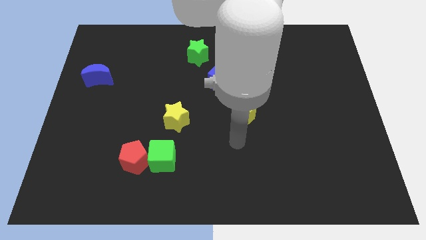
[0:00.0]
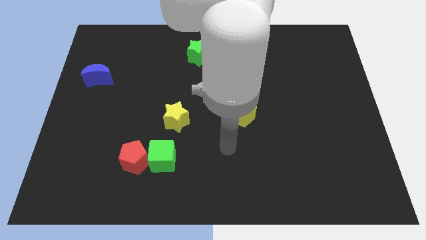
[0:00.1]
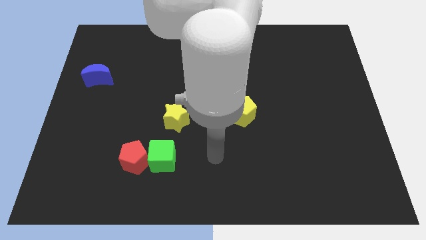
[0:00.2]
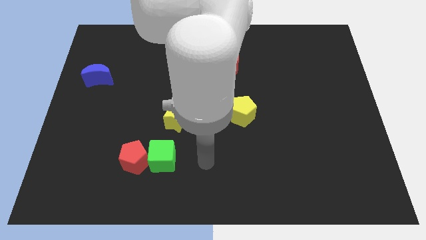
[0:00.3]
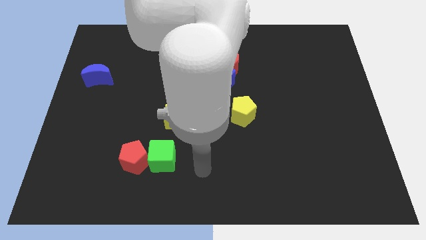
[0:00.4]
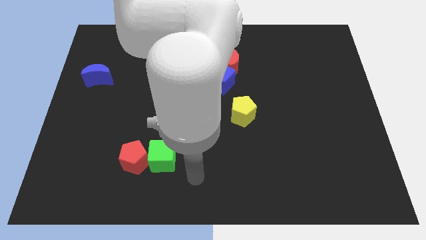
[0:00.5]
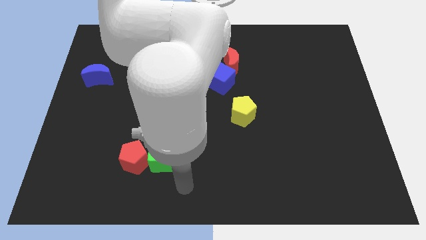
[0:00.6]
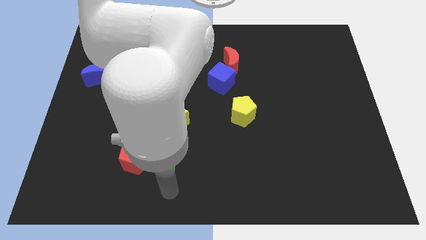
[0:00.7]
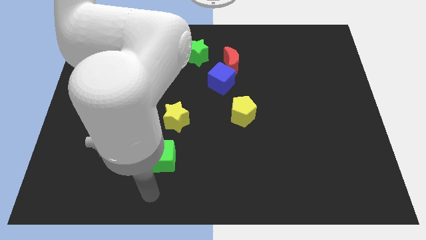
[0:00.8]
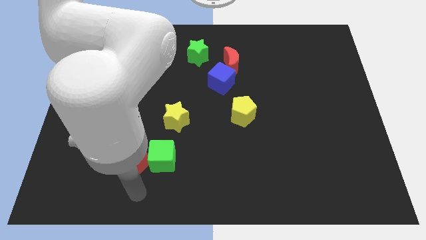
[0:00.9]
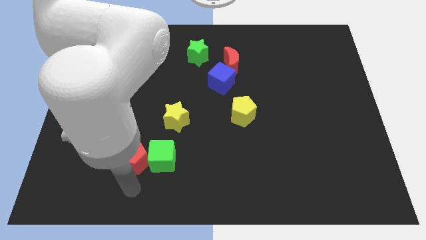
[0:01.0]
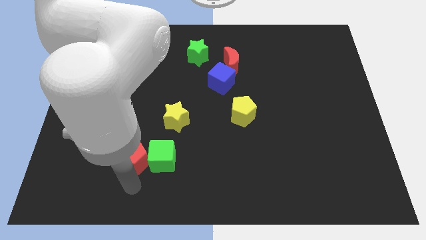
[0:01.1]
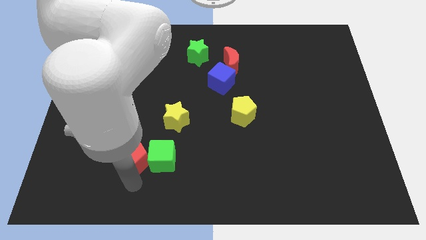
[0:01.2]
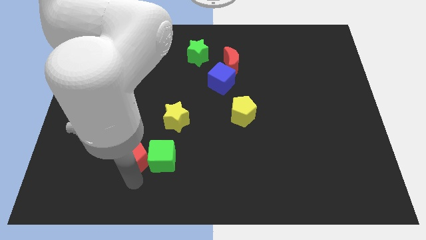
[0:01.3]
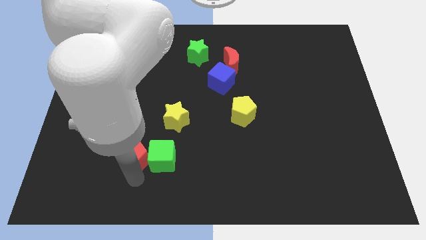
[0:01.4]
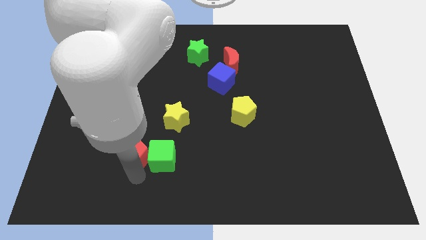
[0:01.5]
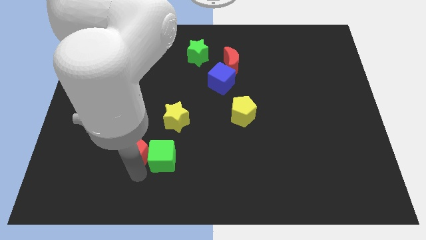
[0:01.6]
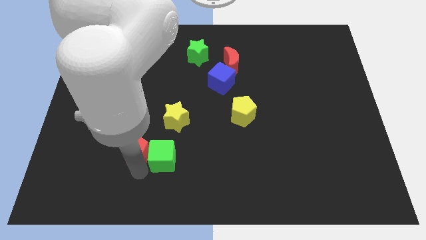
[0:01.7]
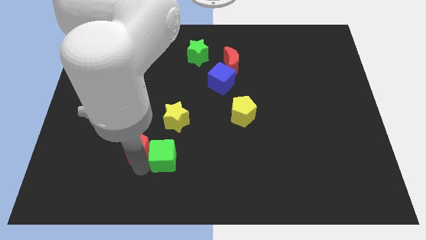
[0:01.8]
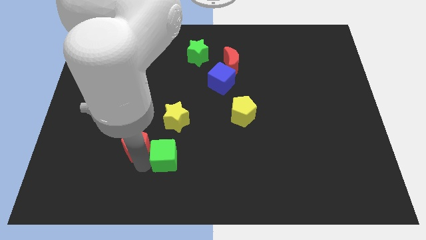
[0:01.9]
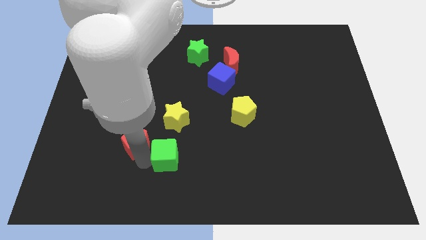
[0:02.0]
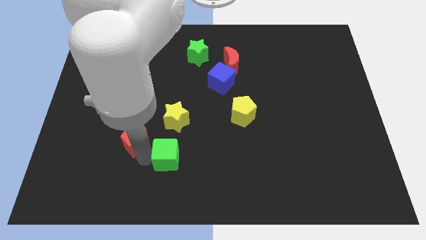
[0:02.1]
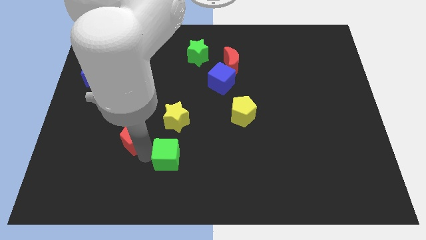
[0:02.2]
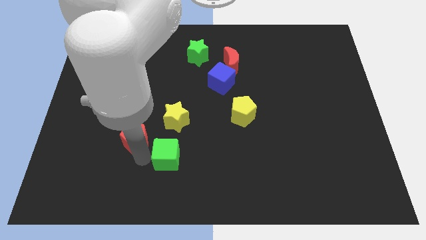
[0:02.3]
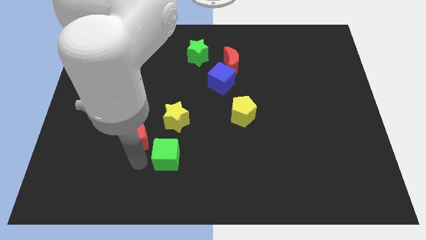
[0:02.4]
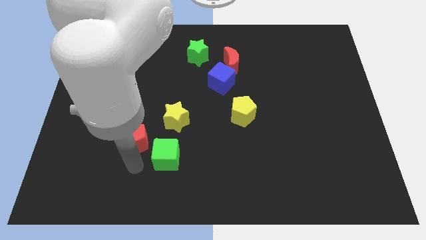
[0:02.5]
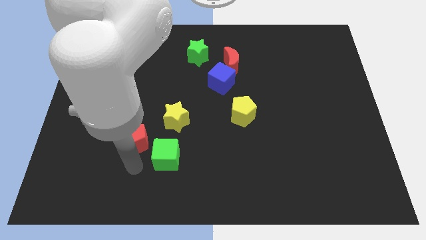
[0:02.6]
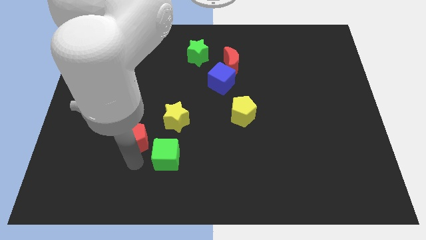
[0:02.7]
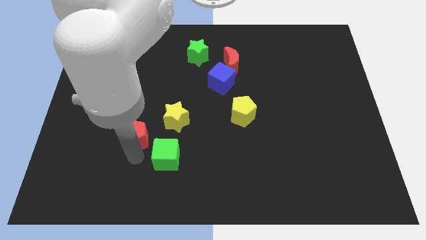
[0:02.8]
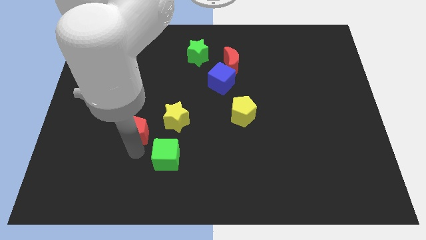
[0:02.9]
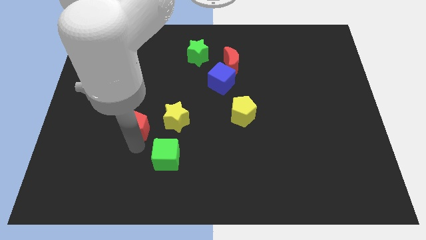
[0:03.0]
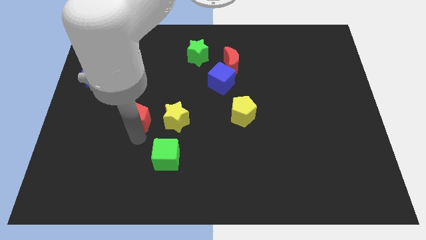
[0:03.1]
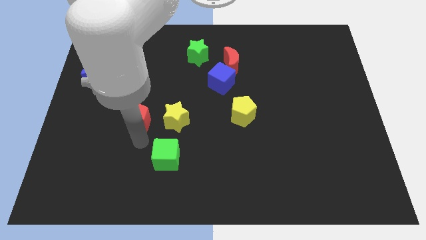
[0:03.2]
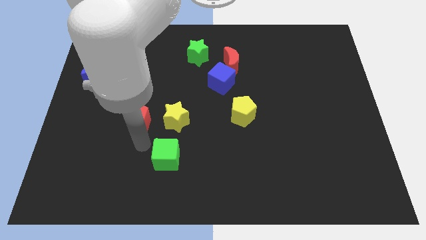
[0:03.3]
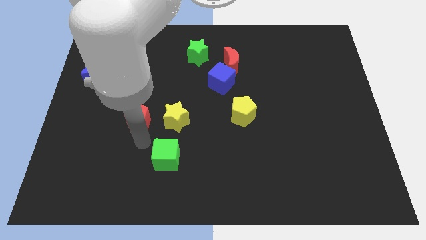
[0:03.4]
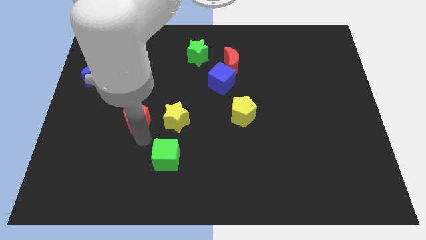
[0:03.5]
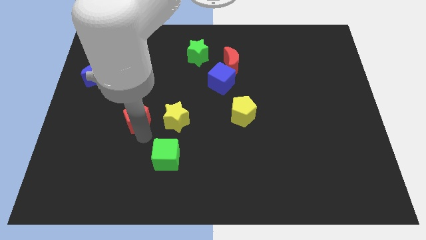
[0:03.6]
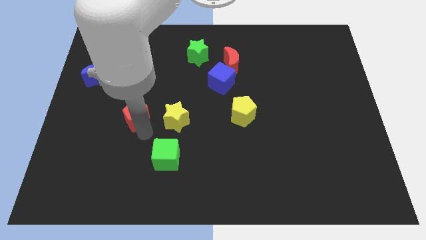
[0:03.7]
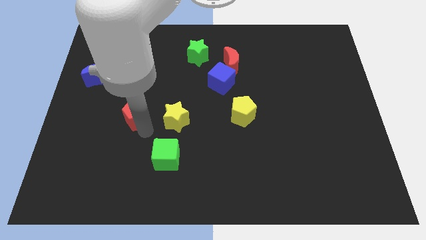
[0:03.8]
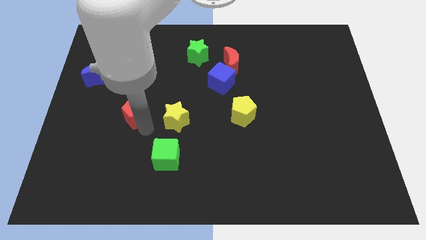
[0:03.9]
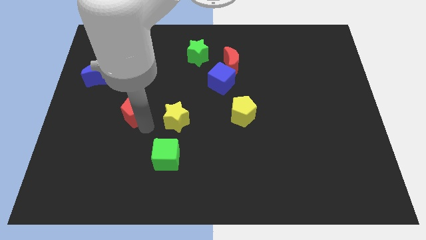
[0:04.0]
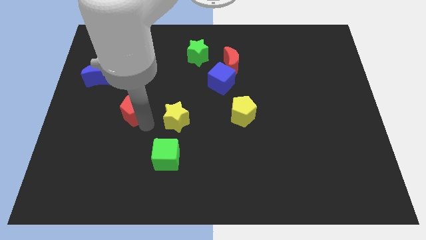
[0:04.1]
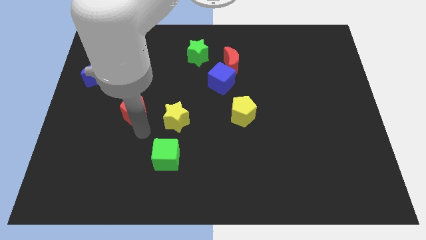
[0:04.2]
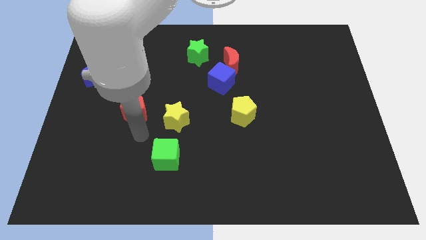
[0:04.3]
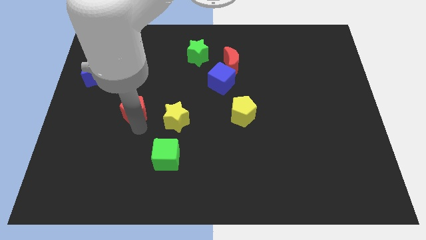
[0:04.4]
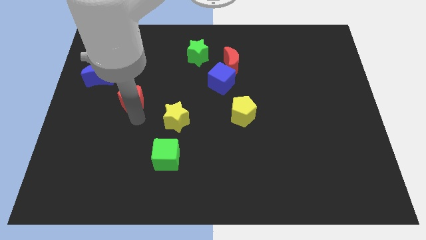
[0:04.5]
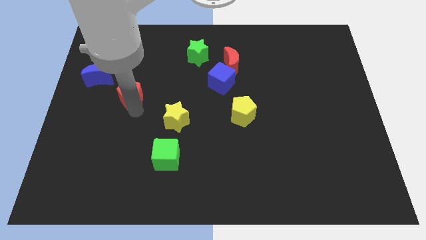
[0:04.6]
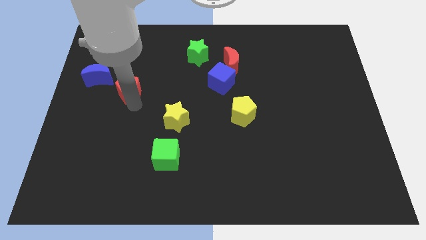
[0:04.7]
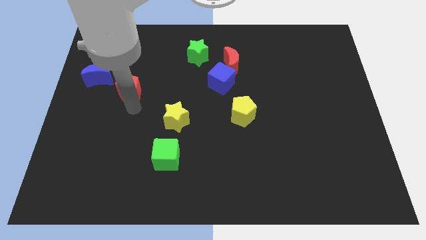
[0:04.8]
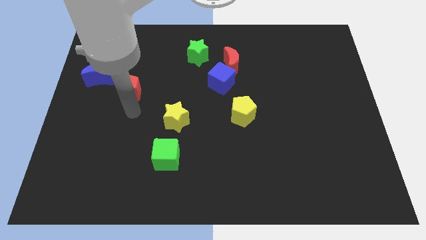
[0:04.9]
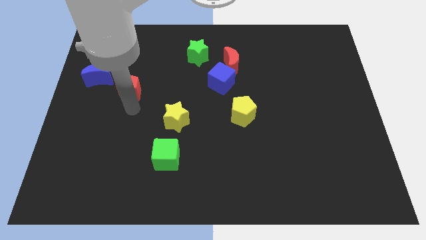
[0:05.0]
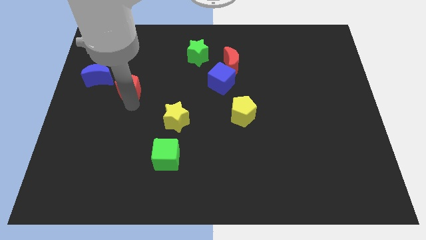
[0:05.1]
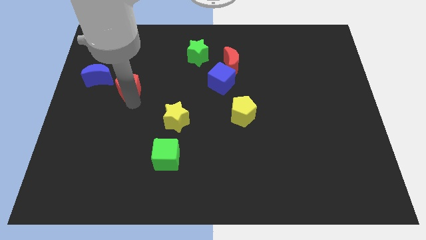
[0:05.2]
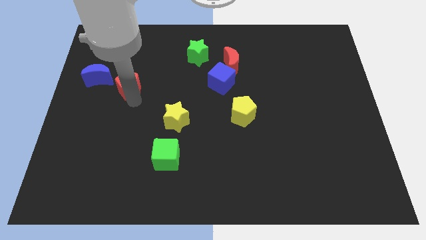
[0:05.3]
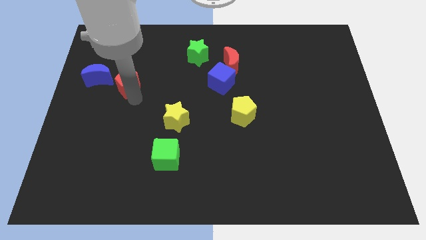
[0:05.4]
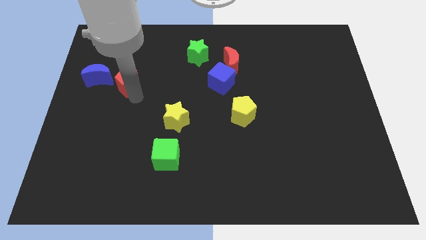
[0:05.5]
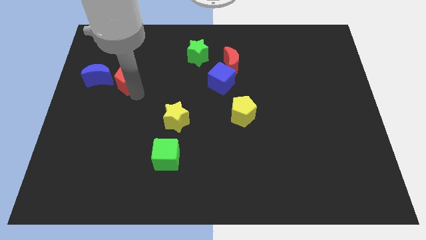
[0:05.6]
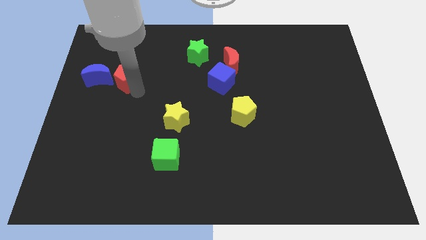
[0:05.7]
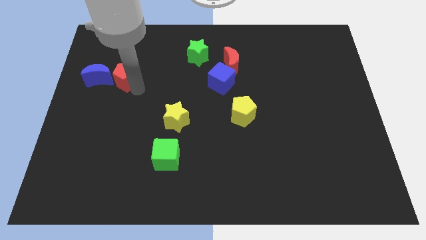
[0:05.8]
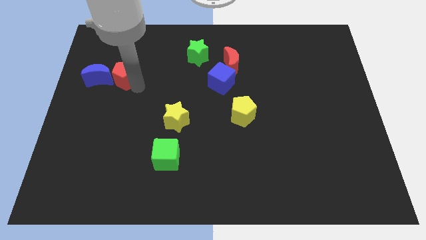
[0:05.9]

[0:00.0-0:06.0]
move the red pentagon diagonally up and to the right of the blue moon

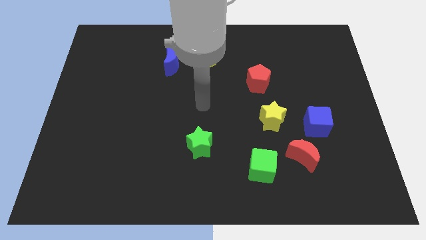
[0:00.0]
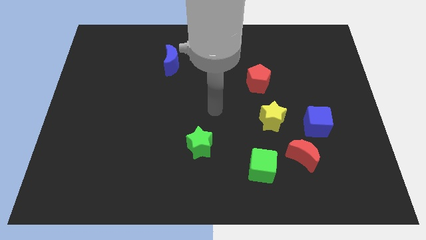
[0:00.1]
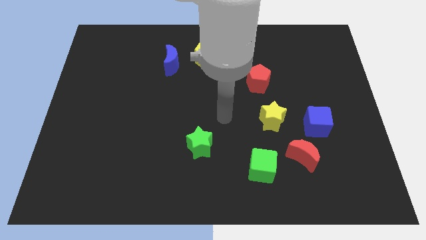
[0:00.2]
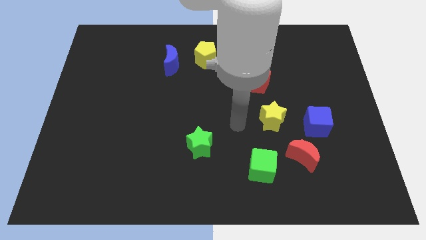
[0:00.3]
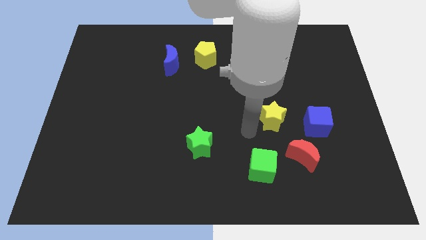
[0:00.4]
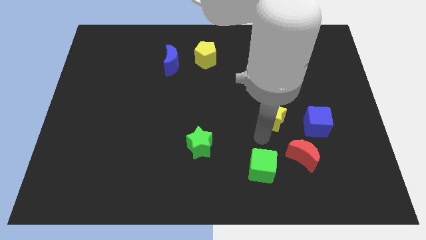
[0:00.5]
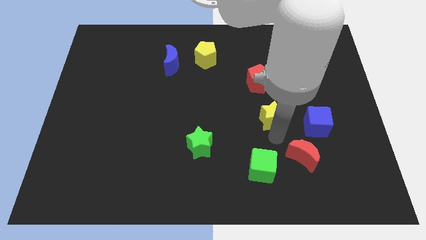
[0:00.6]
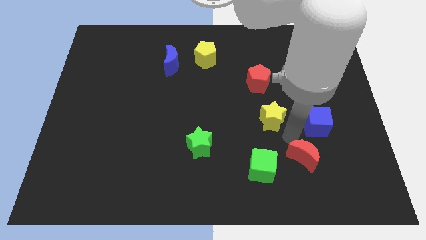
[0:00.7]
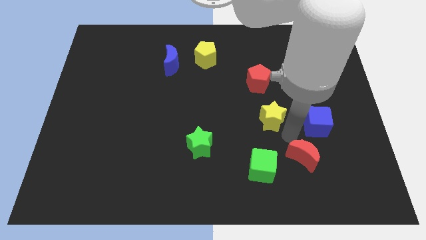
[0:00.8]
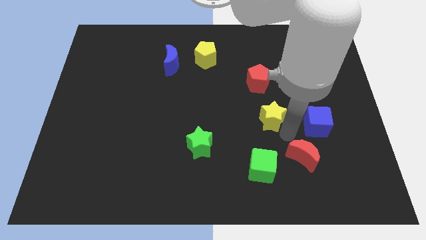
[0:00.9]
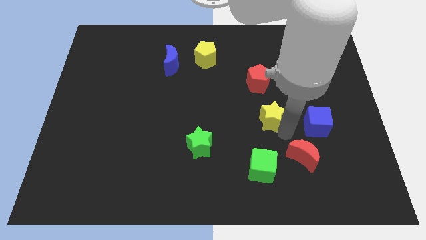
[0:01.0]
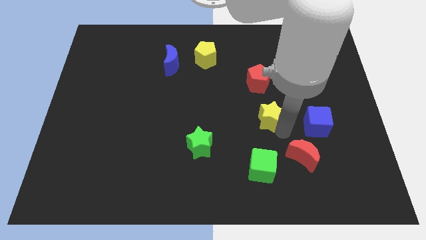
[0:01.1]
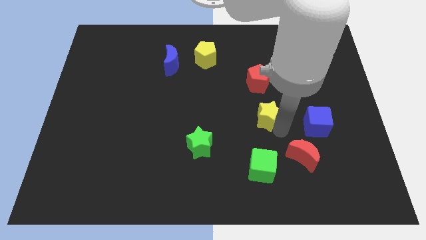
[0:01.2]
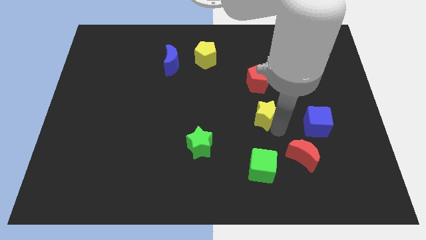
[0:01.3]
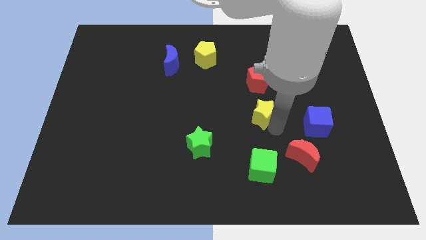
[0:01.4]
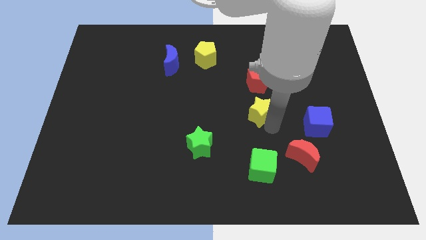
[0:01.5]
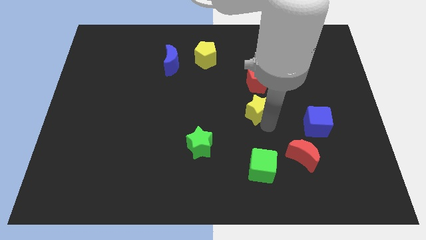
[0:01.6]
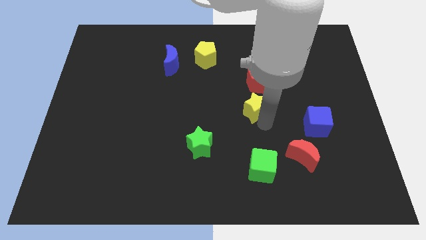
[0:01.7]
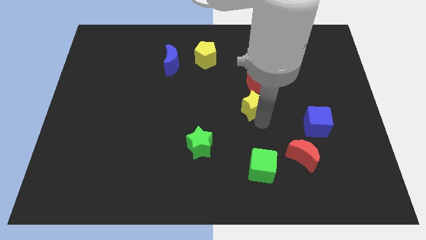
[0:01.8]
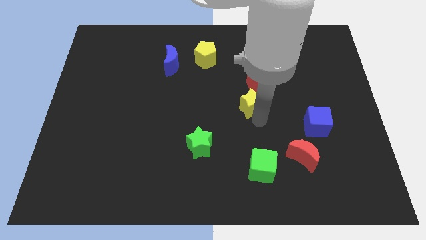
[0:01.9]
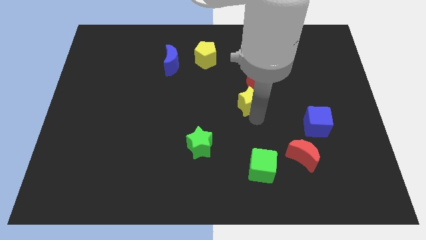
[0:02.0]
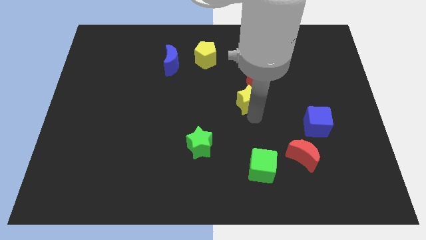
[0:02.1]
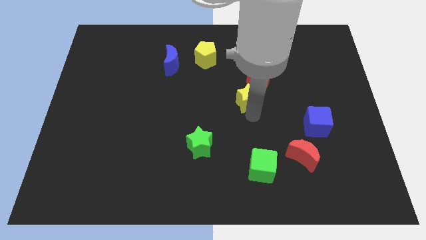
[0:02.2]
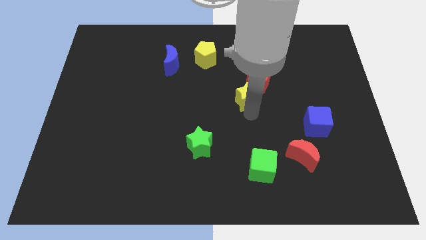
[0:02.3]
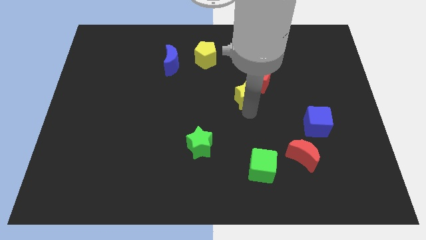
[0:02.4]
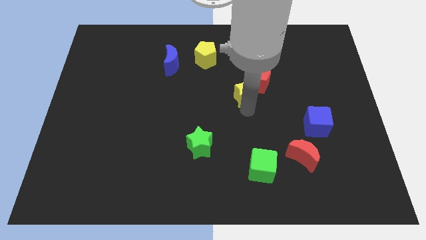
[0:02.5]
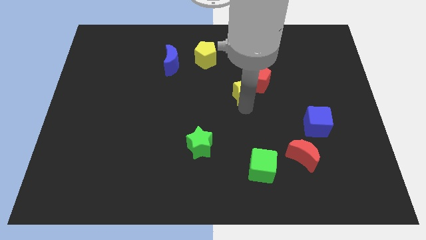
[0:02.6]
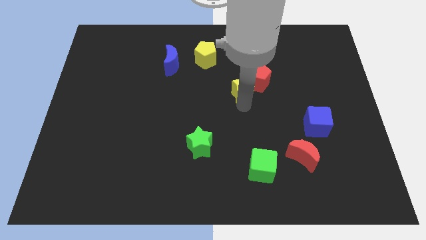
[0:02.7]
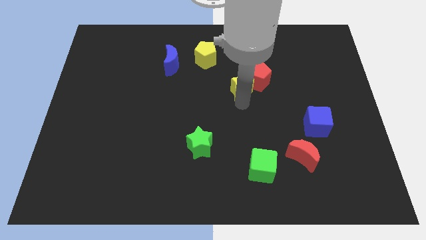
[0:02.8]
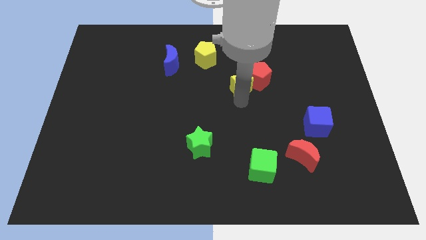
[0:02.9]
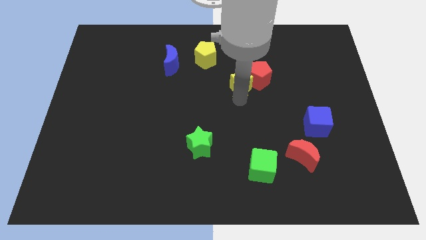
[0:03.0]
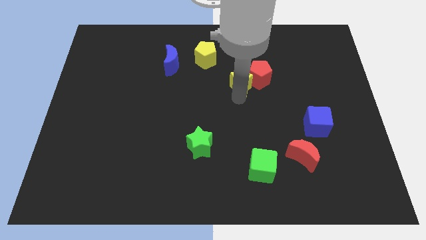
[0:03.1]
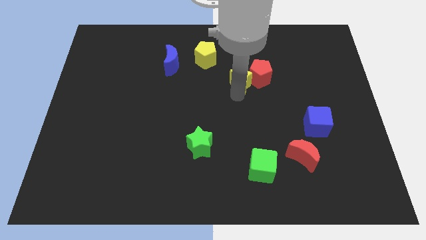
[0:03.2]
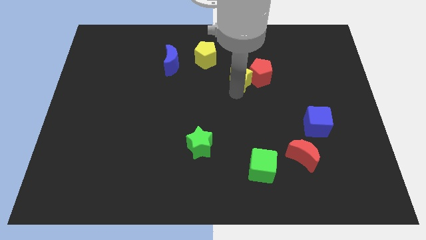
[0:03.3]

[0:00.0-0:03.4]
slide the yellow star to the top left side of the red pentagon
